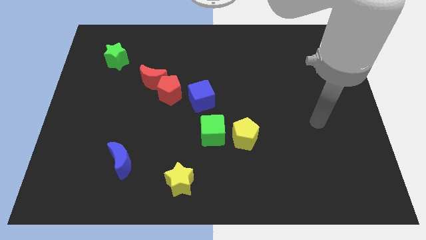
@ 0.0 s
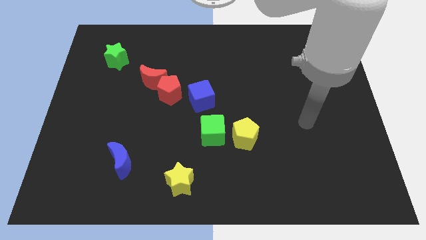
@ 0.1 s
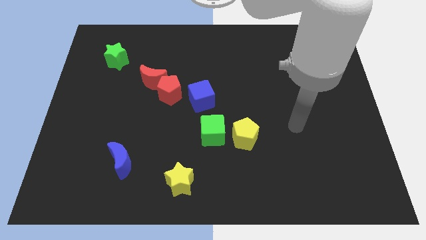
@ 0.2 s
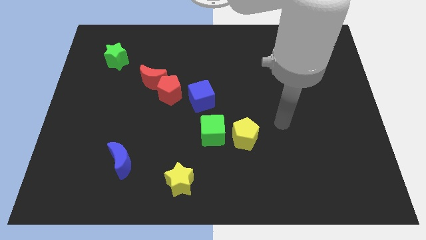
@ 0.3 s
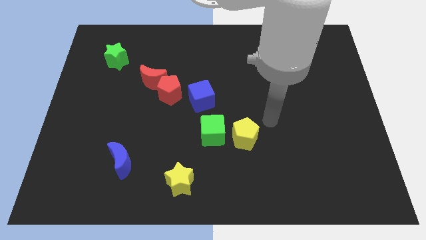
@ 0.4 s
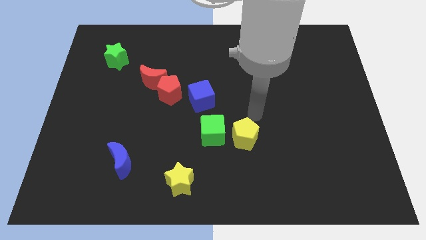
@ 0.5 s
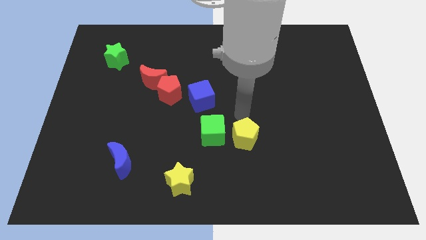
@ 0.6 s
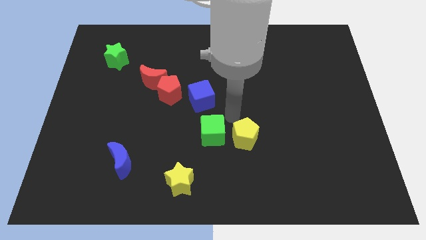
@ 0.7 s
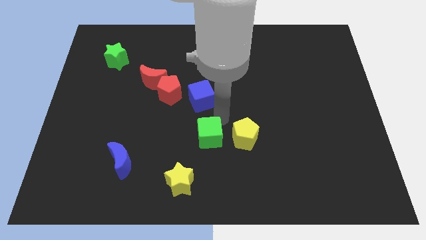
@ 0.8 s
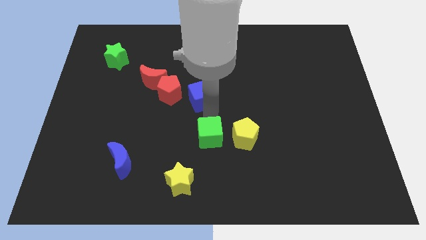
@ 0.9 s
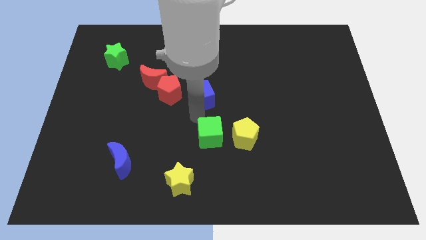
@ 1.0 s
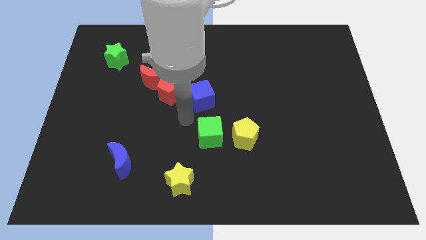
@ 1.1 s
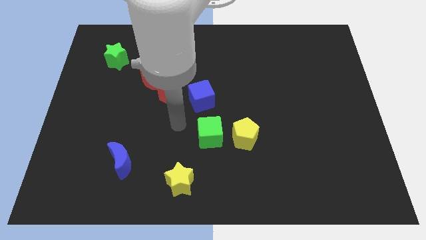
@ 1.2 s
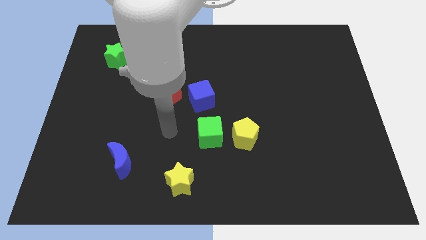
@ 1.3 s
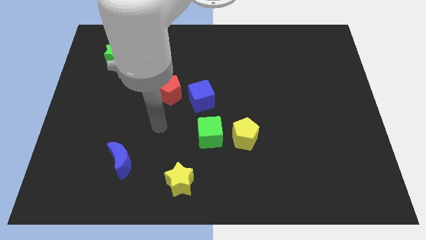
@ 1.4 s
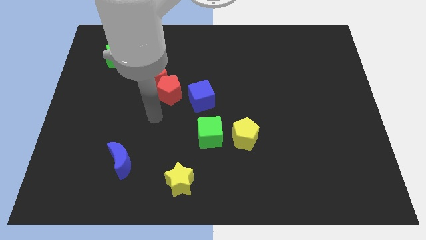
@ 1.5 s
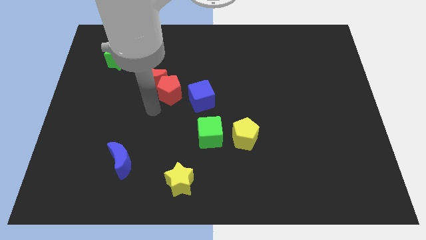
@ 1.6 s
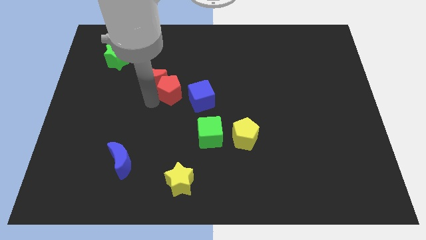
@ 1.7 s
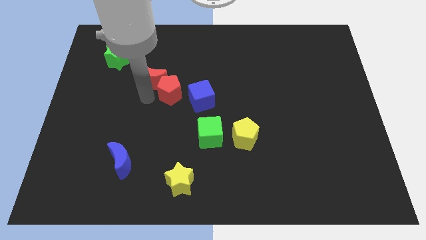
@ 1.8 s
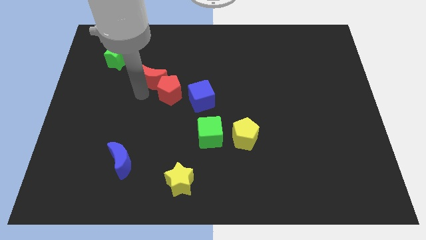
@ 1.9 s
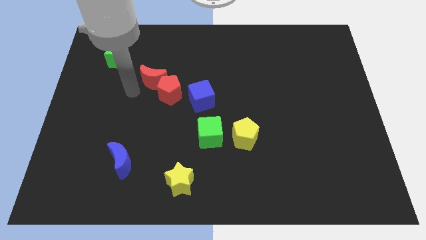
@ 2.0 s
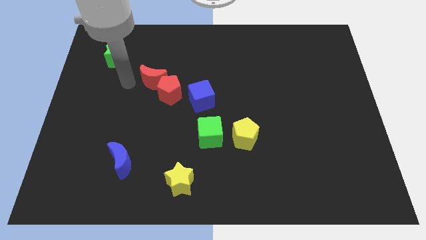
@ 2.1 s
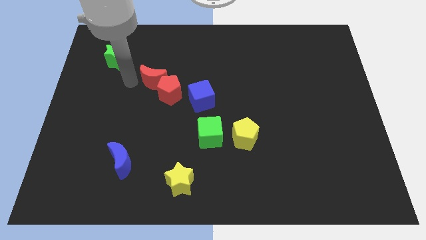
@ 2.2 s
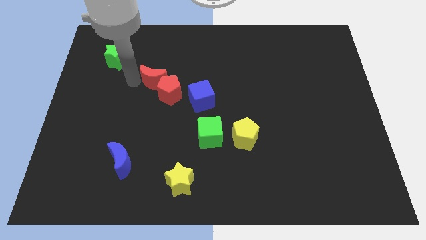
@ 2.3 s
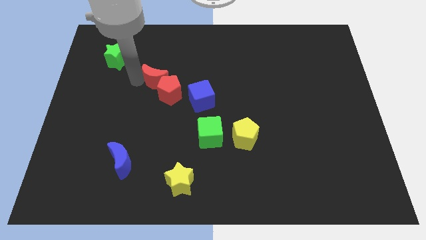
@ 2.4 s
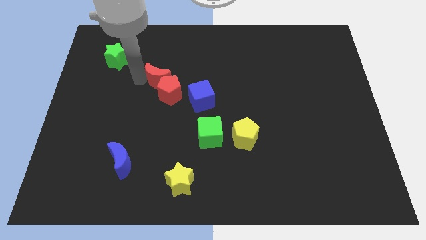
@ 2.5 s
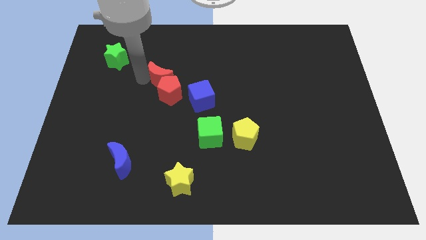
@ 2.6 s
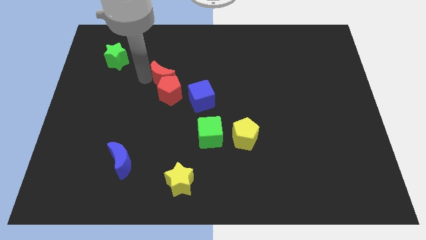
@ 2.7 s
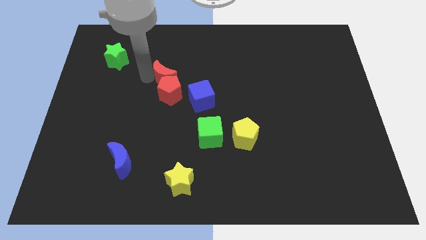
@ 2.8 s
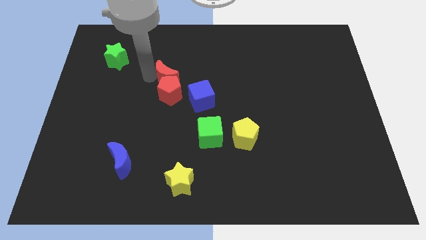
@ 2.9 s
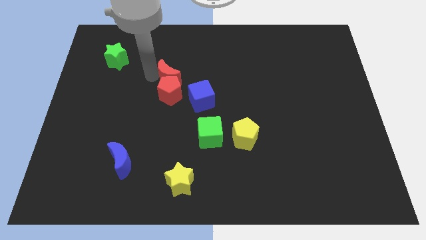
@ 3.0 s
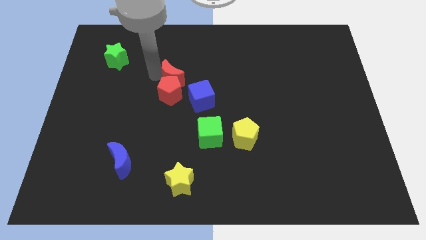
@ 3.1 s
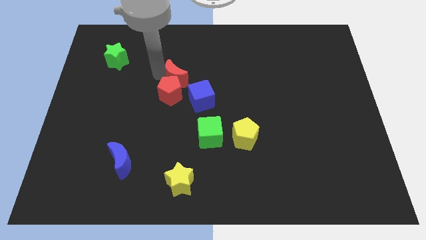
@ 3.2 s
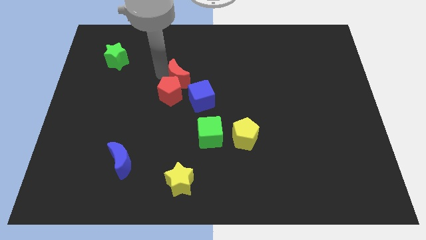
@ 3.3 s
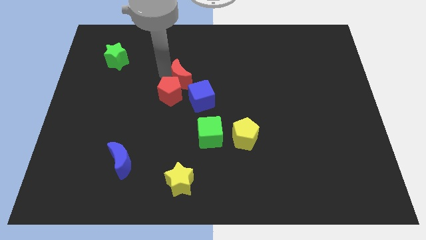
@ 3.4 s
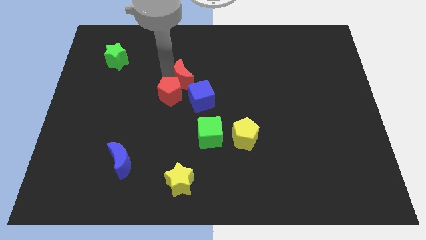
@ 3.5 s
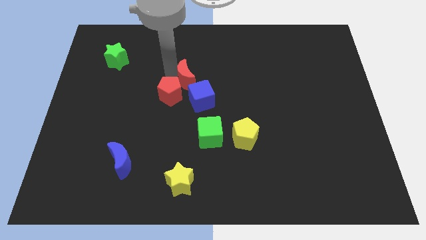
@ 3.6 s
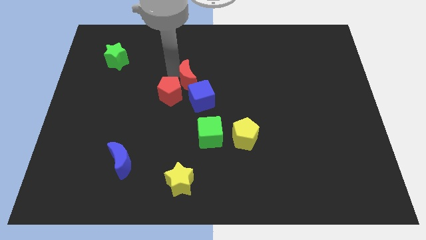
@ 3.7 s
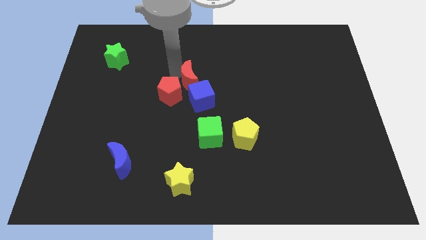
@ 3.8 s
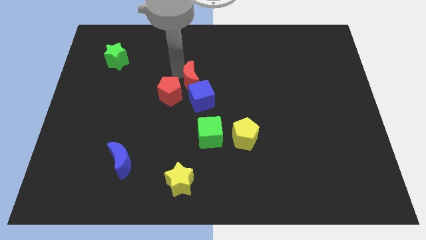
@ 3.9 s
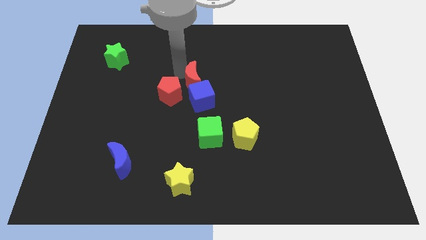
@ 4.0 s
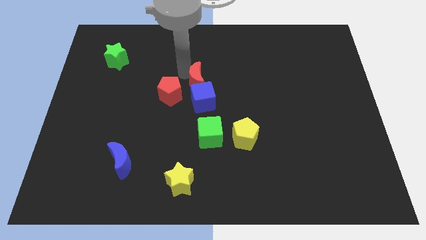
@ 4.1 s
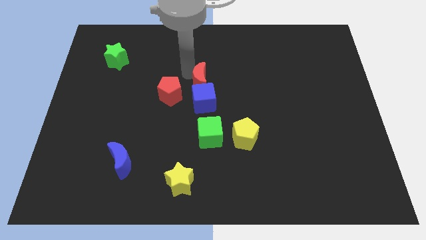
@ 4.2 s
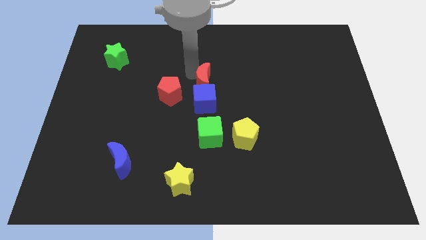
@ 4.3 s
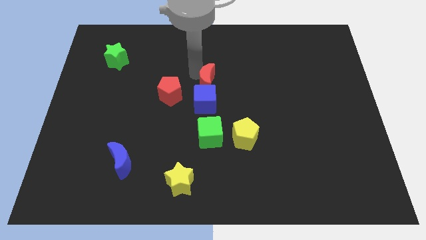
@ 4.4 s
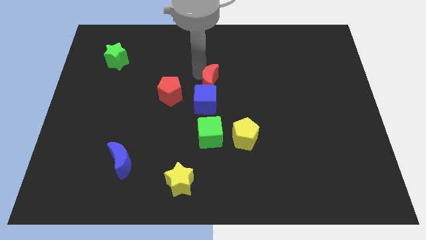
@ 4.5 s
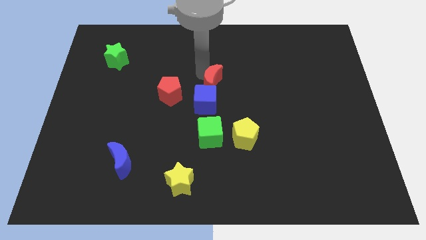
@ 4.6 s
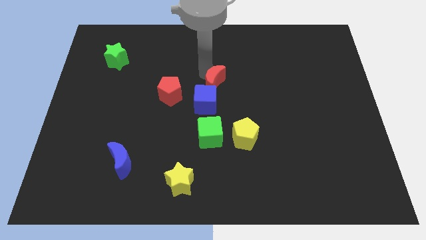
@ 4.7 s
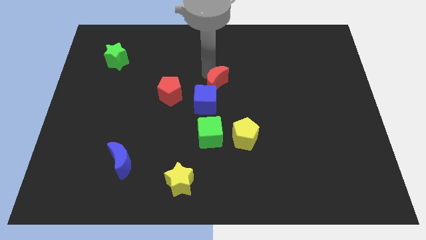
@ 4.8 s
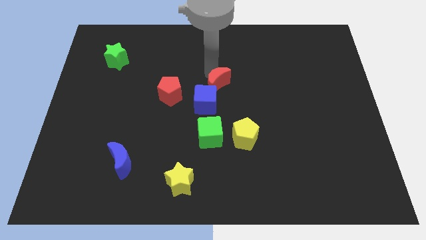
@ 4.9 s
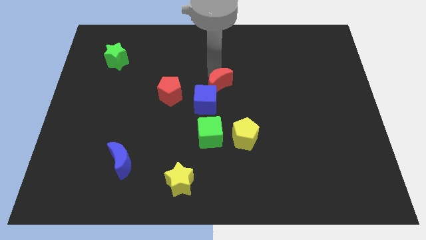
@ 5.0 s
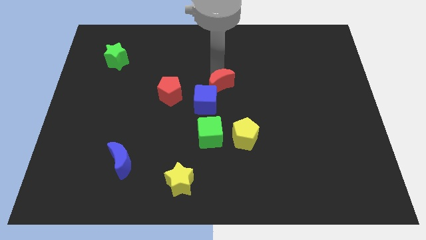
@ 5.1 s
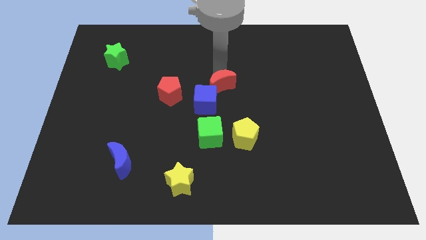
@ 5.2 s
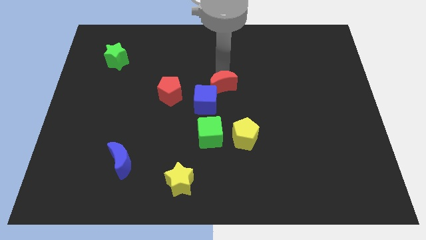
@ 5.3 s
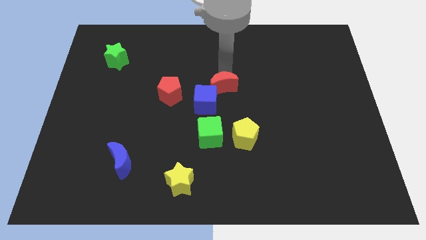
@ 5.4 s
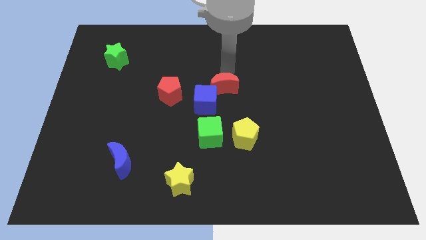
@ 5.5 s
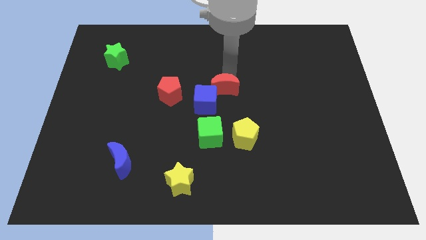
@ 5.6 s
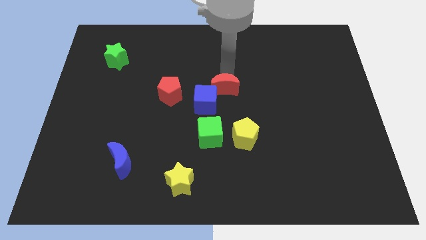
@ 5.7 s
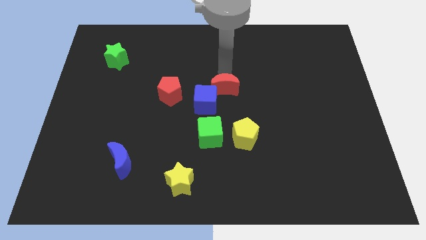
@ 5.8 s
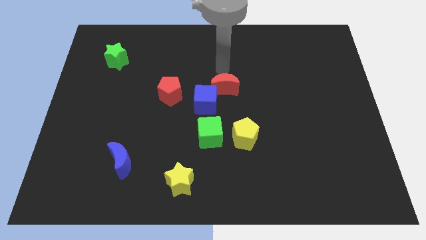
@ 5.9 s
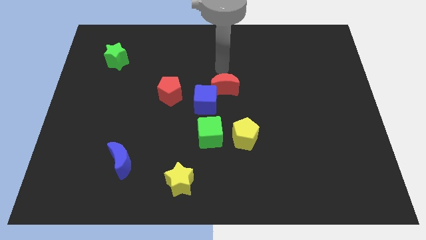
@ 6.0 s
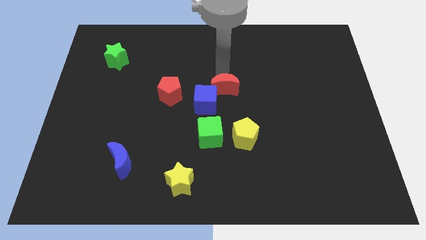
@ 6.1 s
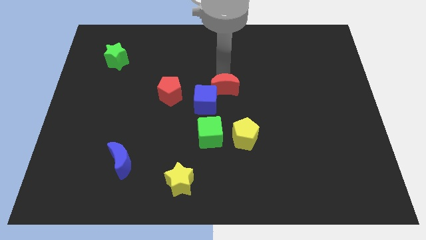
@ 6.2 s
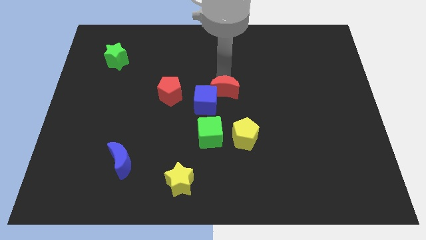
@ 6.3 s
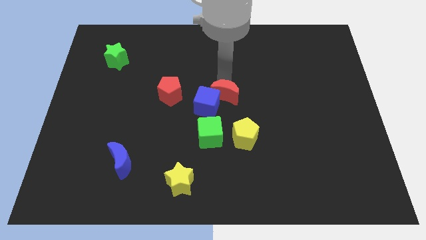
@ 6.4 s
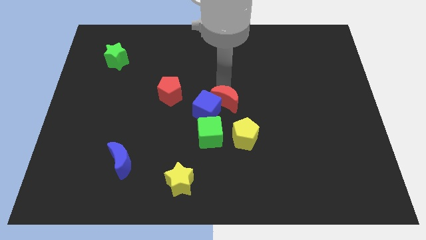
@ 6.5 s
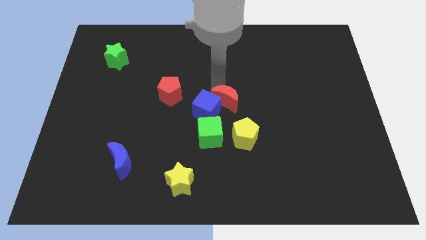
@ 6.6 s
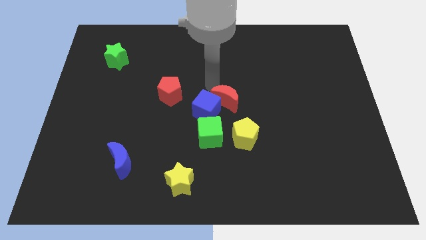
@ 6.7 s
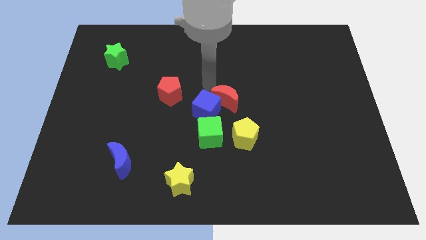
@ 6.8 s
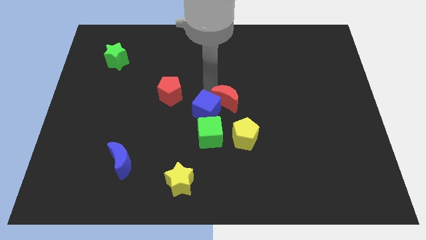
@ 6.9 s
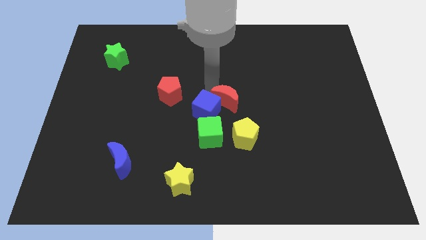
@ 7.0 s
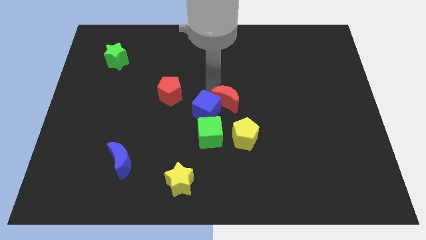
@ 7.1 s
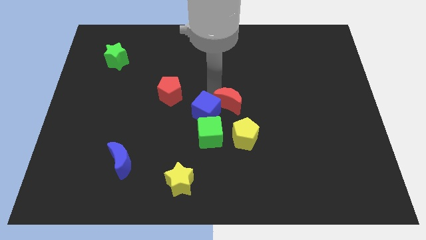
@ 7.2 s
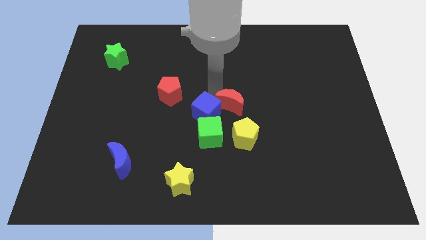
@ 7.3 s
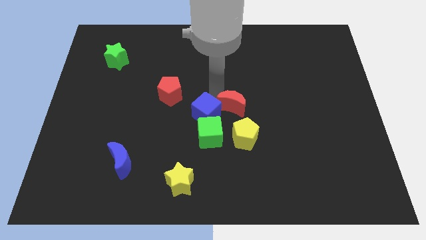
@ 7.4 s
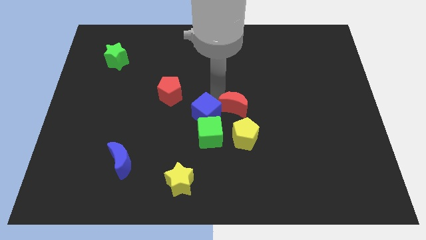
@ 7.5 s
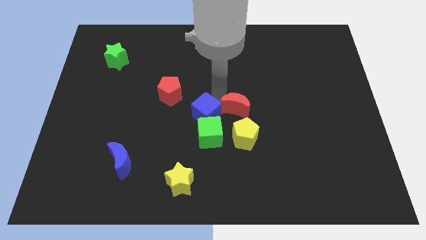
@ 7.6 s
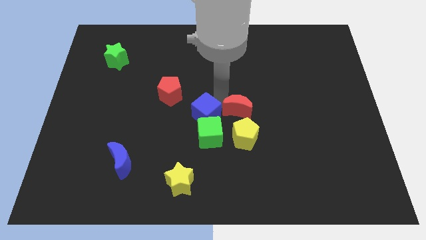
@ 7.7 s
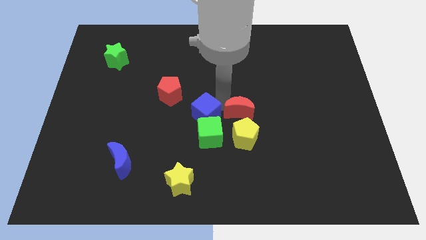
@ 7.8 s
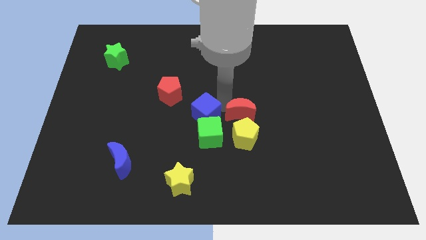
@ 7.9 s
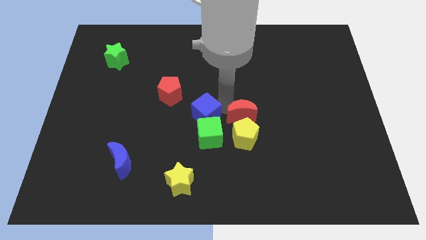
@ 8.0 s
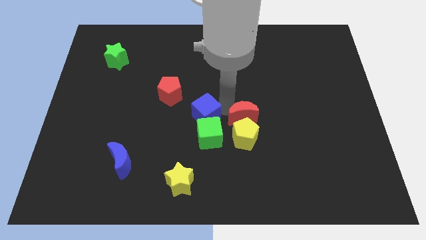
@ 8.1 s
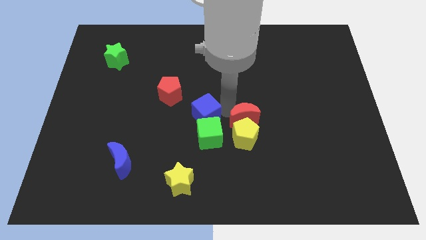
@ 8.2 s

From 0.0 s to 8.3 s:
push the red moon just right of the green cube
